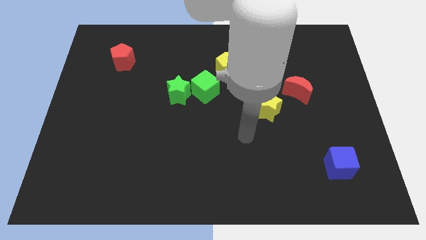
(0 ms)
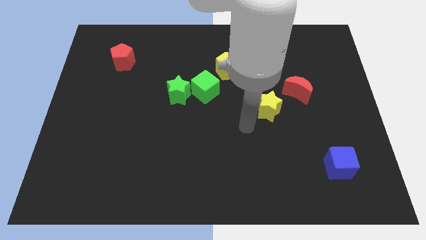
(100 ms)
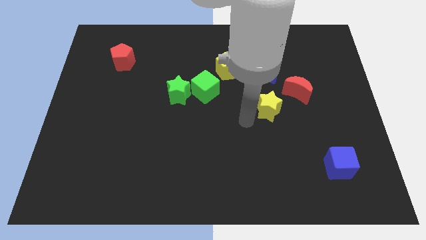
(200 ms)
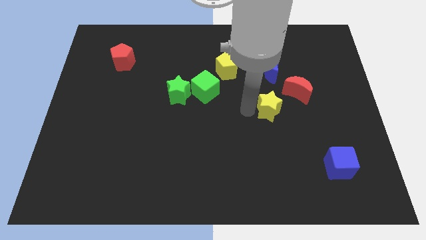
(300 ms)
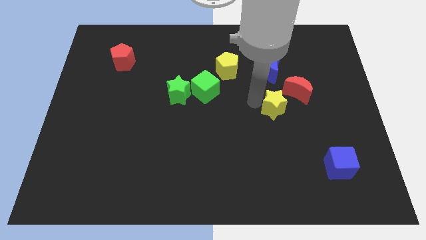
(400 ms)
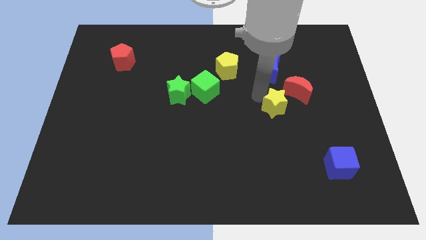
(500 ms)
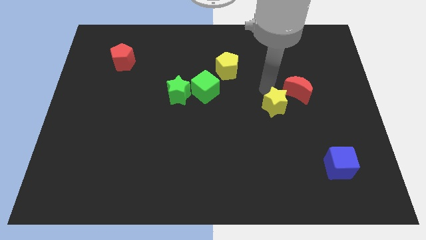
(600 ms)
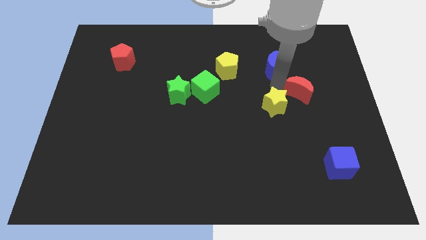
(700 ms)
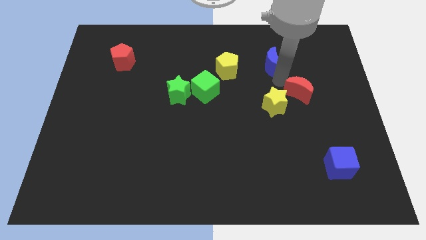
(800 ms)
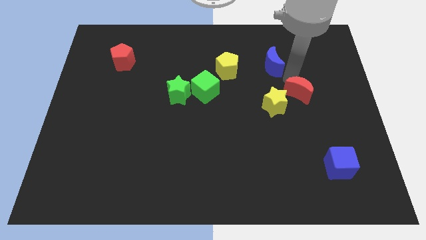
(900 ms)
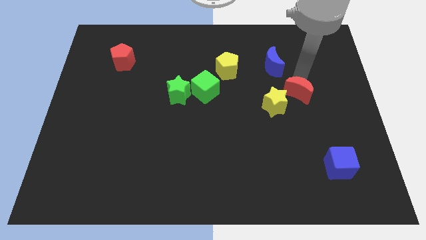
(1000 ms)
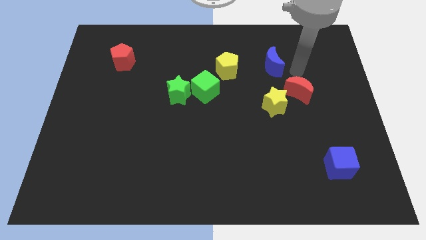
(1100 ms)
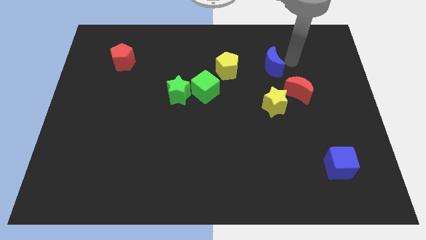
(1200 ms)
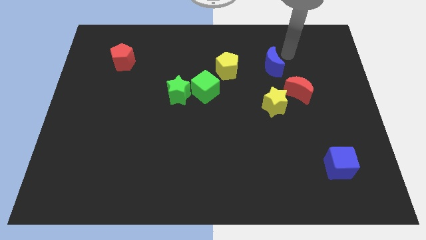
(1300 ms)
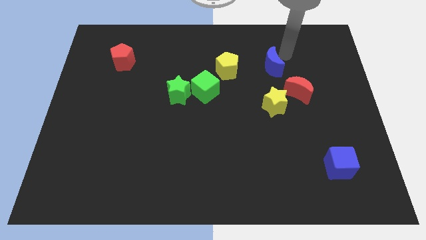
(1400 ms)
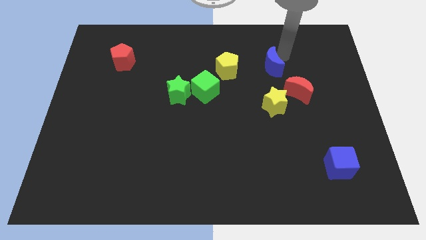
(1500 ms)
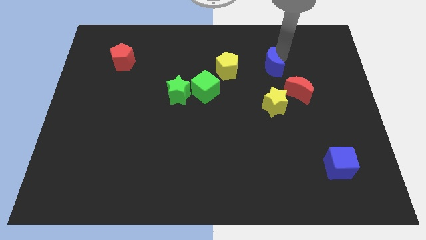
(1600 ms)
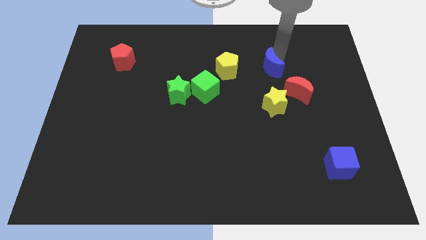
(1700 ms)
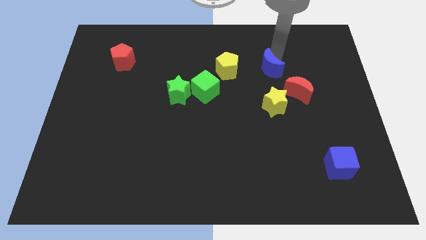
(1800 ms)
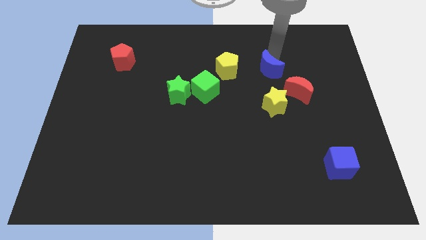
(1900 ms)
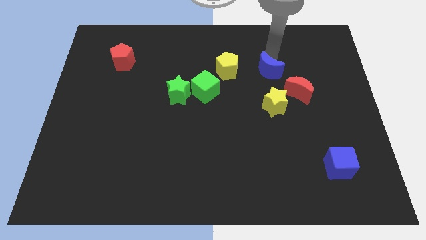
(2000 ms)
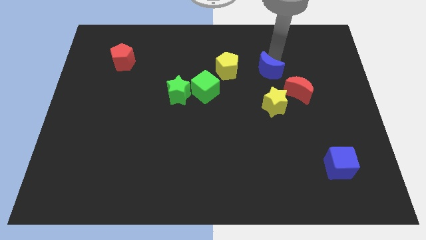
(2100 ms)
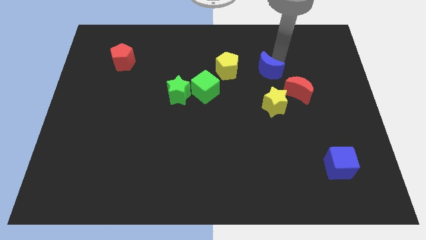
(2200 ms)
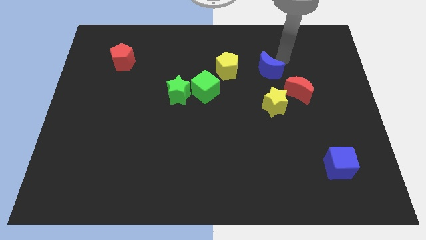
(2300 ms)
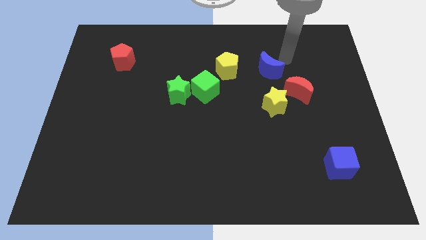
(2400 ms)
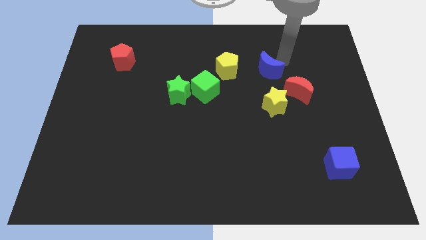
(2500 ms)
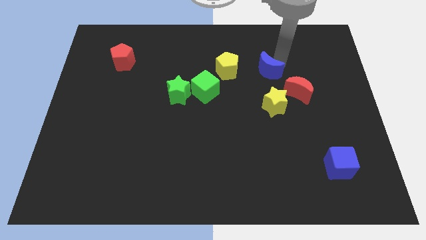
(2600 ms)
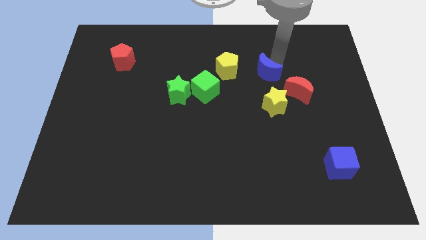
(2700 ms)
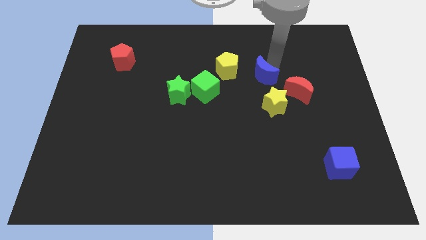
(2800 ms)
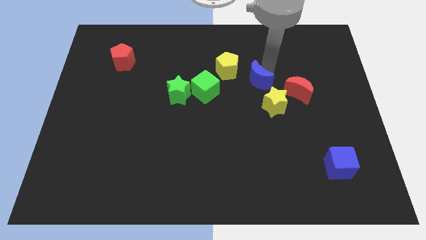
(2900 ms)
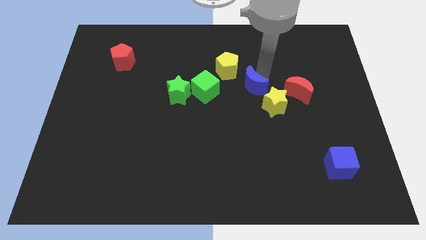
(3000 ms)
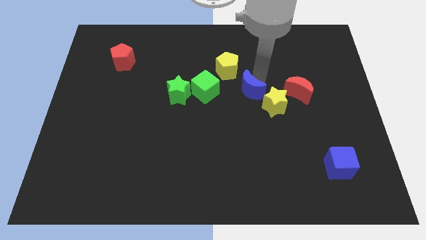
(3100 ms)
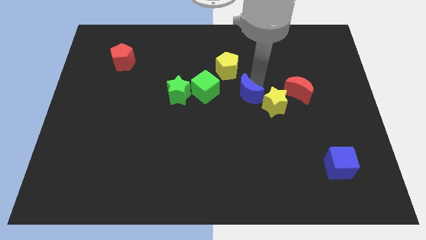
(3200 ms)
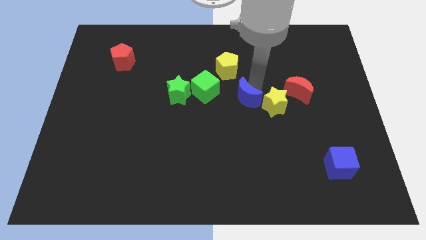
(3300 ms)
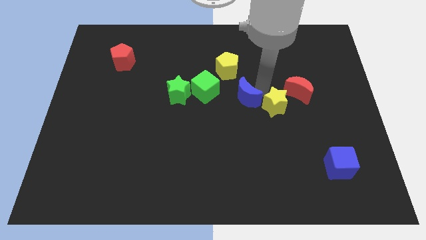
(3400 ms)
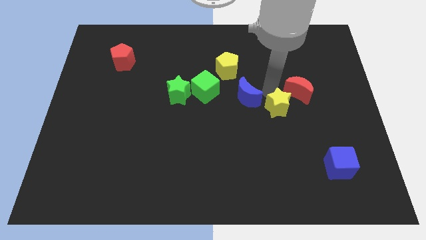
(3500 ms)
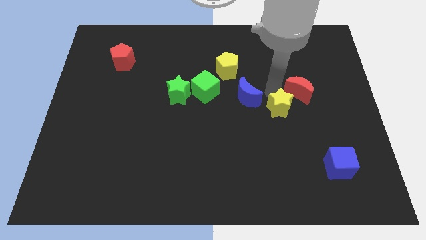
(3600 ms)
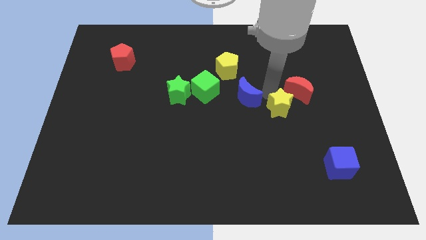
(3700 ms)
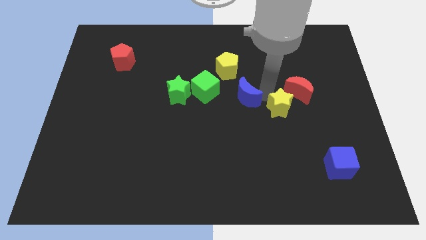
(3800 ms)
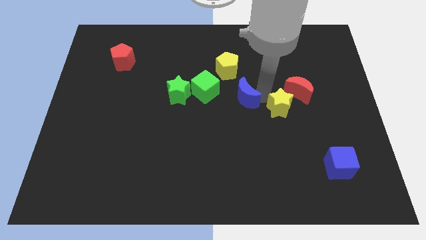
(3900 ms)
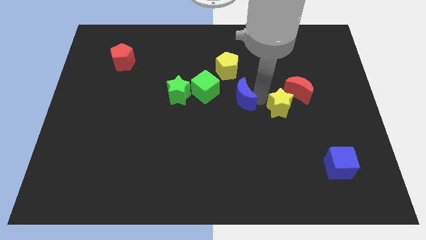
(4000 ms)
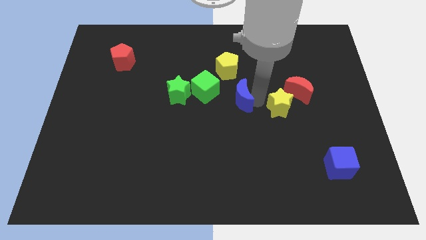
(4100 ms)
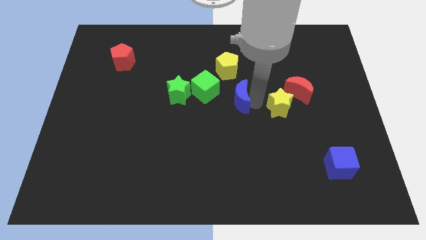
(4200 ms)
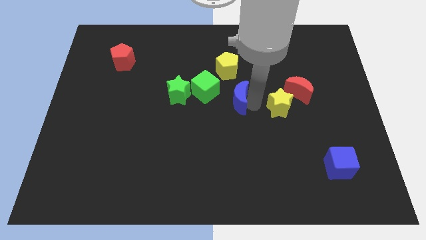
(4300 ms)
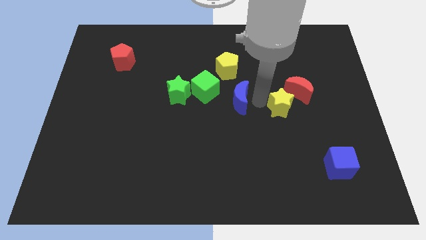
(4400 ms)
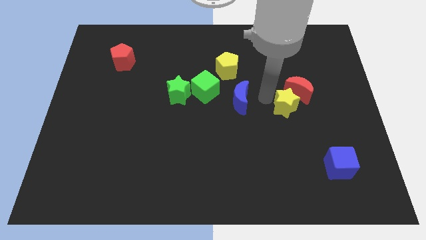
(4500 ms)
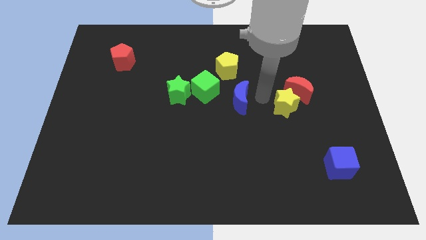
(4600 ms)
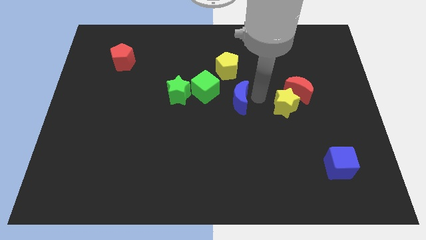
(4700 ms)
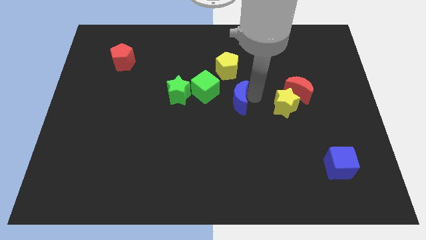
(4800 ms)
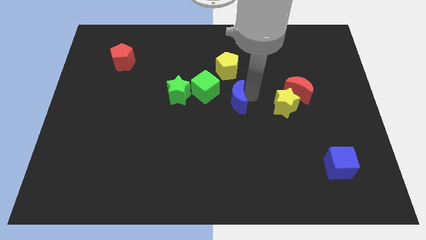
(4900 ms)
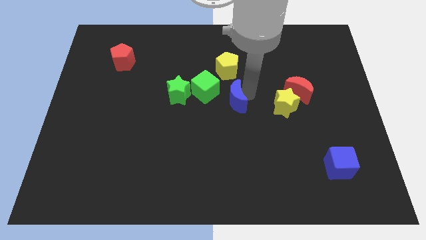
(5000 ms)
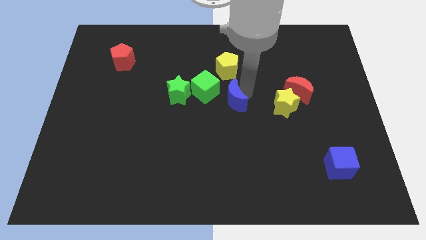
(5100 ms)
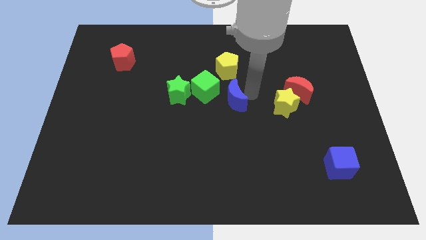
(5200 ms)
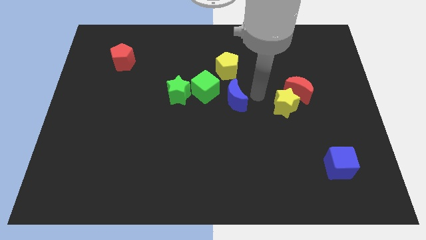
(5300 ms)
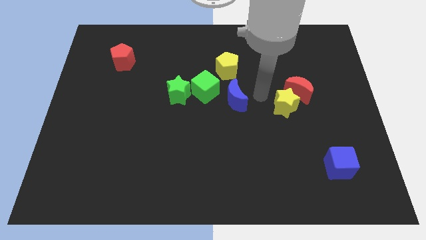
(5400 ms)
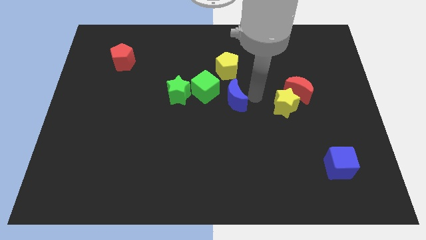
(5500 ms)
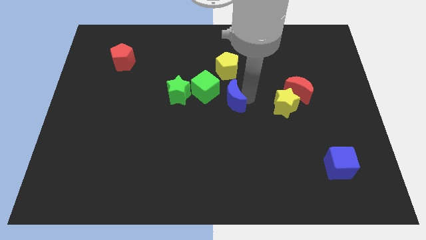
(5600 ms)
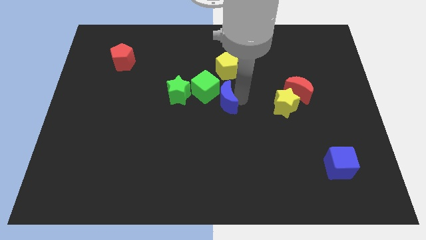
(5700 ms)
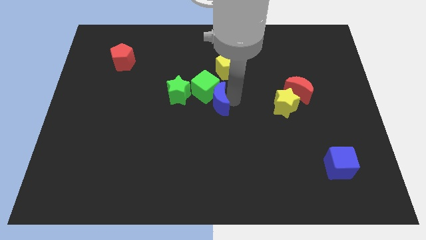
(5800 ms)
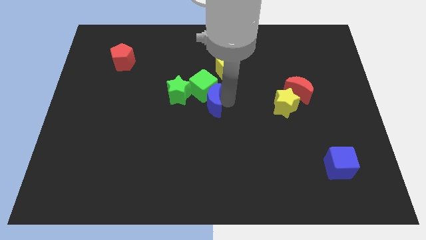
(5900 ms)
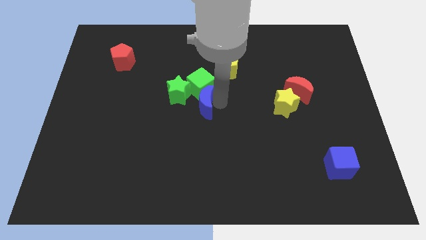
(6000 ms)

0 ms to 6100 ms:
move the blue moon to the bottom left of the green cube

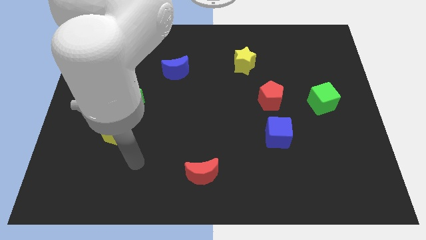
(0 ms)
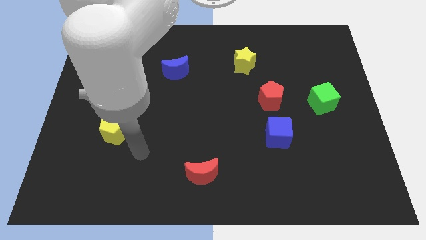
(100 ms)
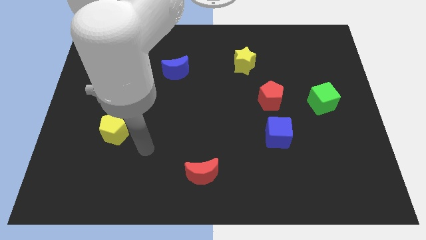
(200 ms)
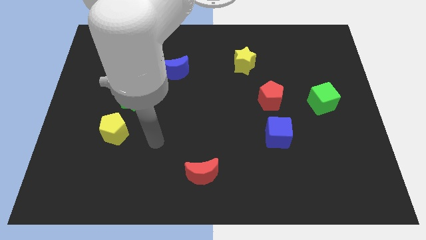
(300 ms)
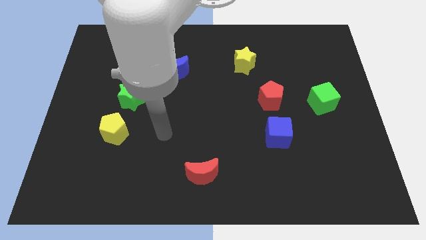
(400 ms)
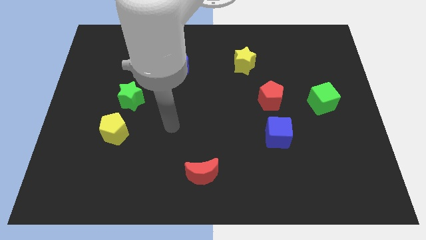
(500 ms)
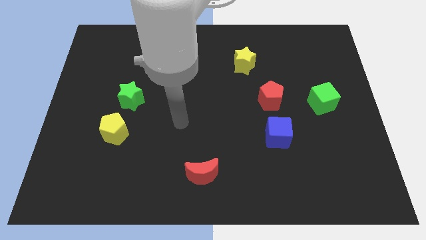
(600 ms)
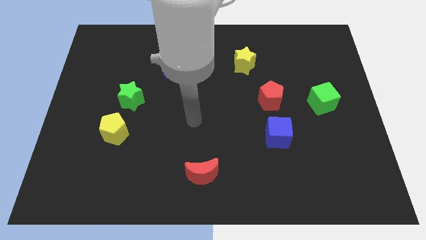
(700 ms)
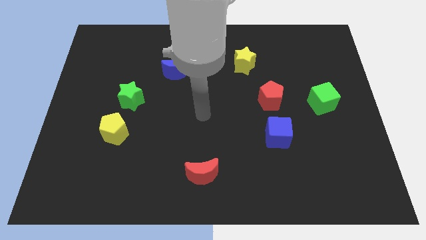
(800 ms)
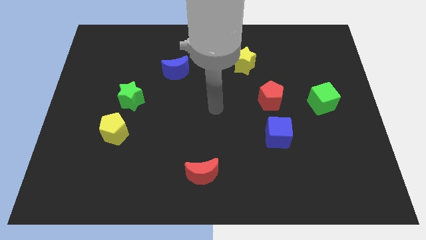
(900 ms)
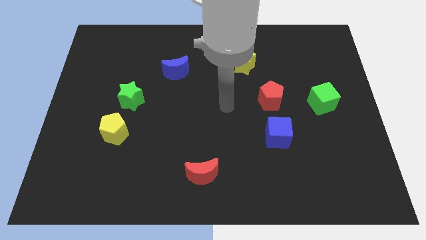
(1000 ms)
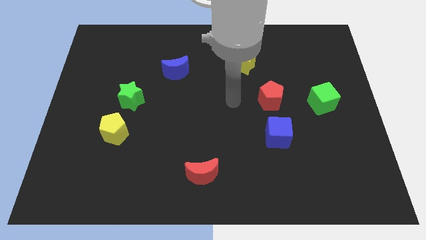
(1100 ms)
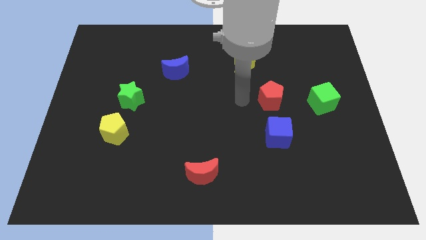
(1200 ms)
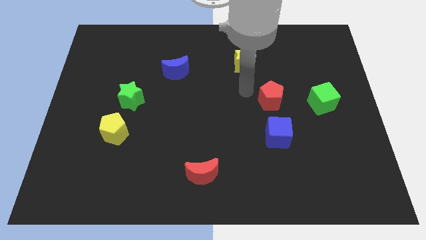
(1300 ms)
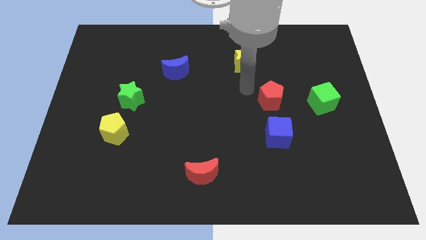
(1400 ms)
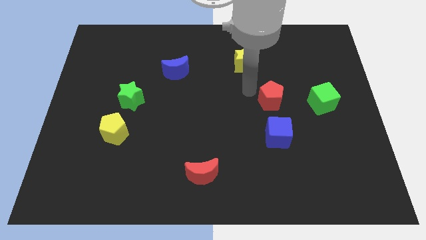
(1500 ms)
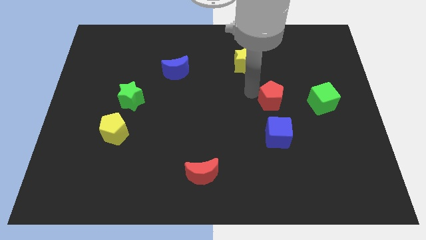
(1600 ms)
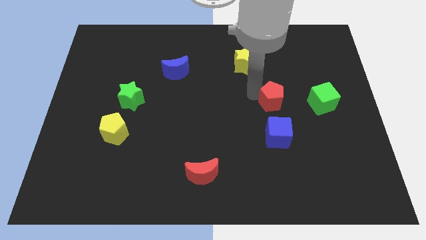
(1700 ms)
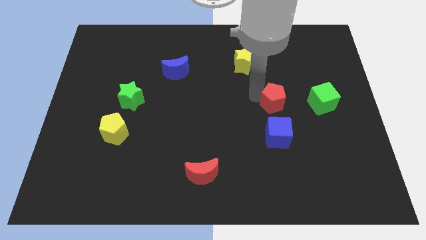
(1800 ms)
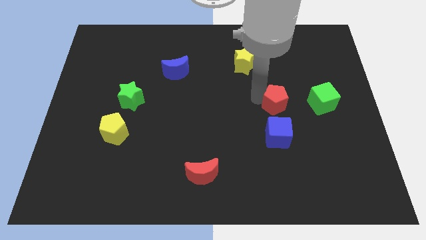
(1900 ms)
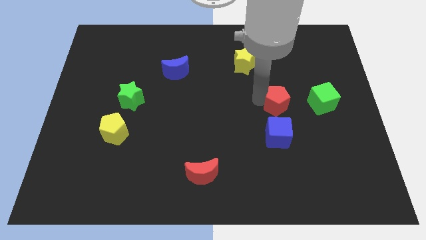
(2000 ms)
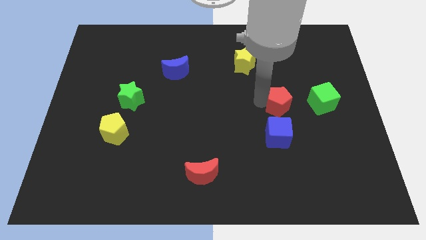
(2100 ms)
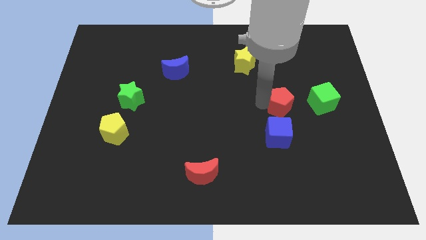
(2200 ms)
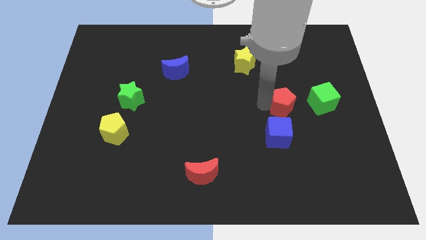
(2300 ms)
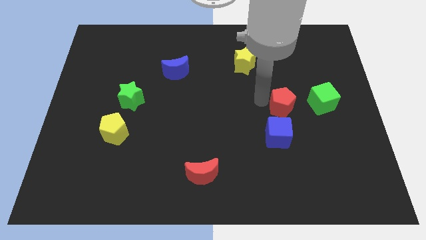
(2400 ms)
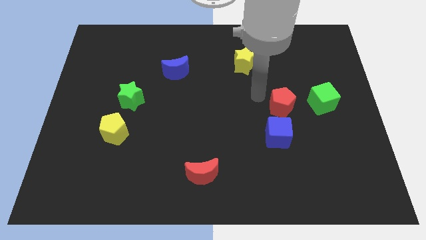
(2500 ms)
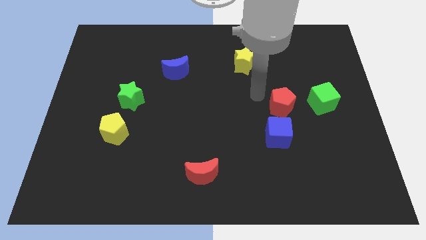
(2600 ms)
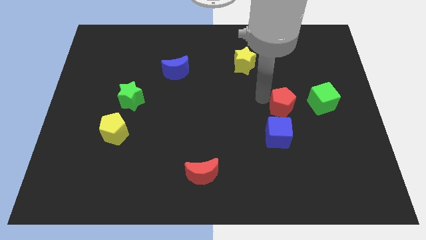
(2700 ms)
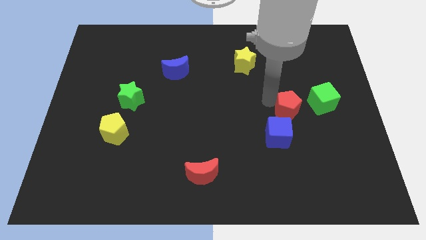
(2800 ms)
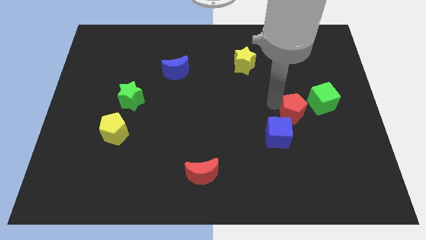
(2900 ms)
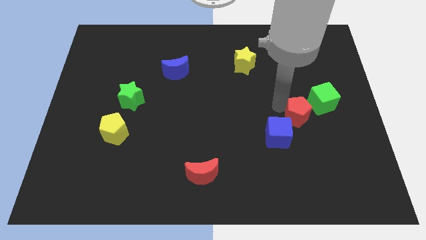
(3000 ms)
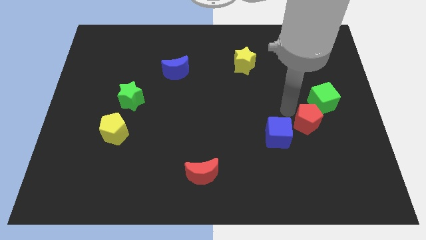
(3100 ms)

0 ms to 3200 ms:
put the red pentagon below the green cube
